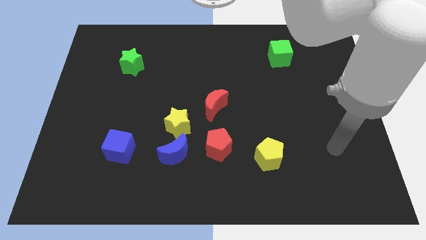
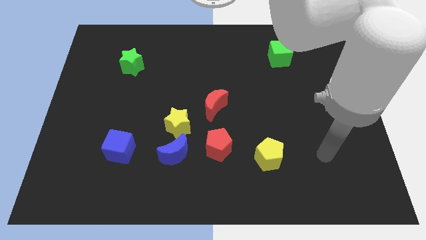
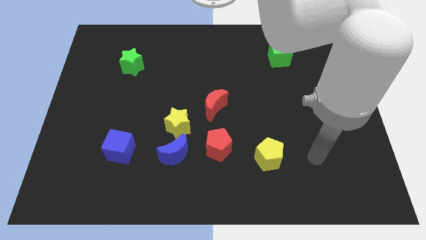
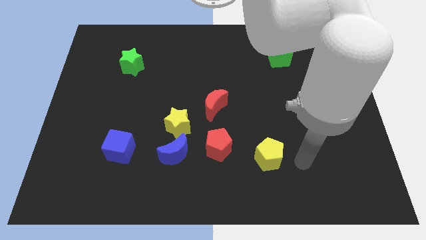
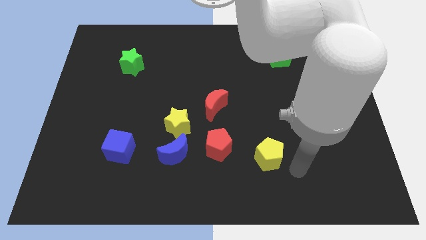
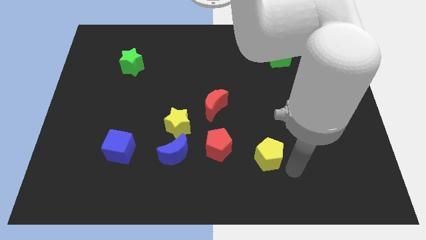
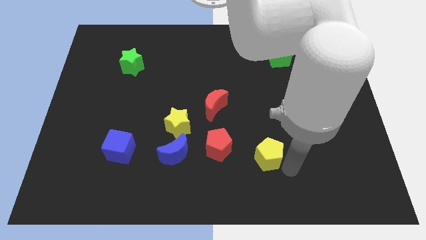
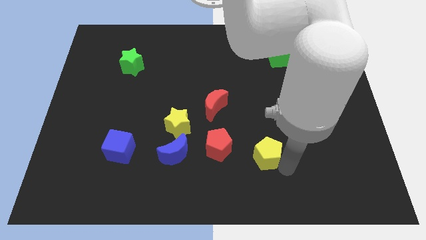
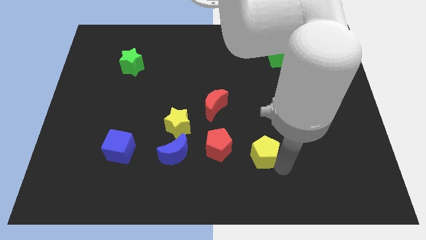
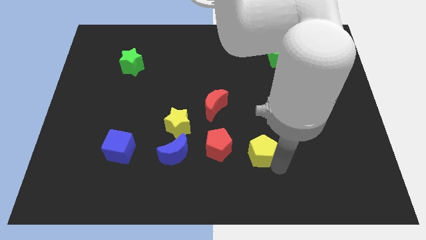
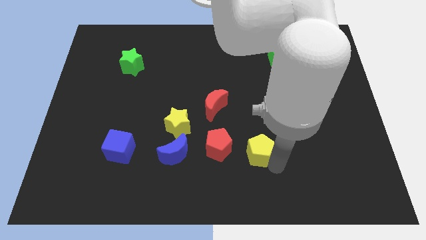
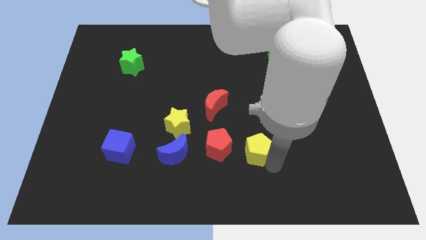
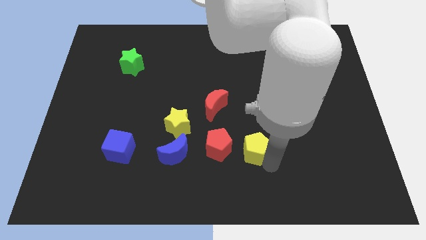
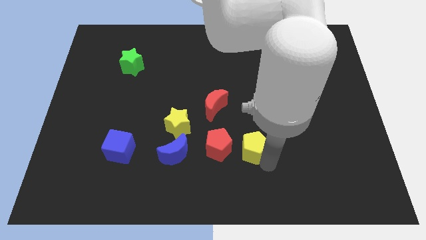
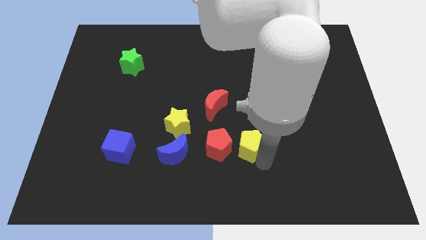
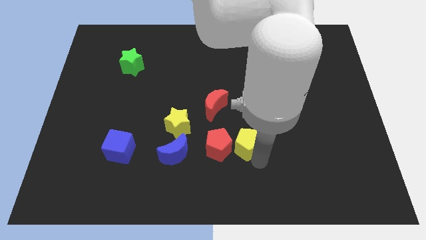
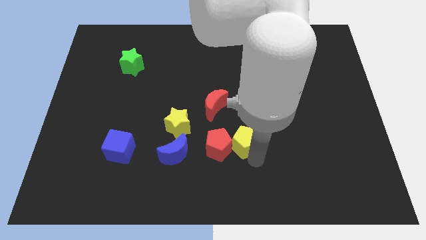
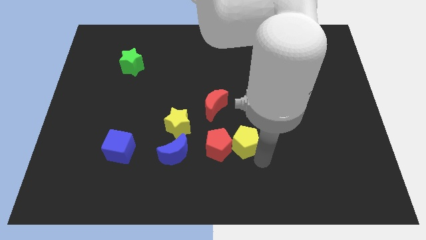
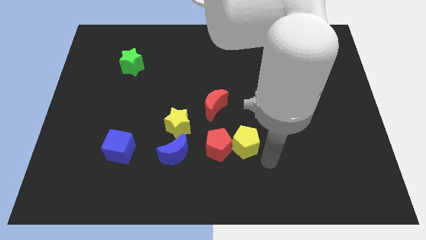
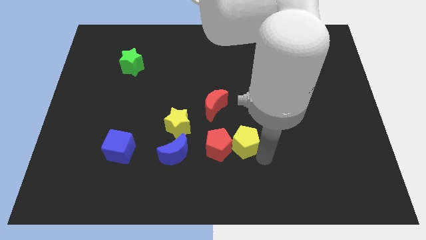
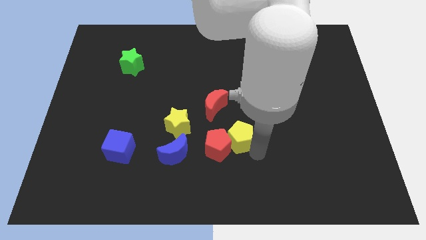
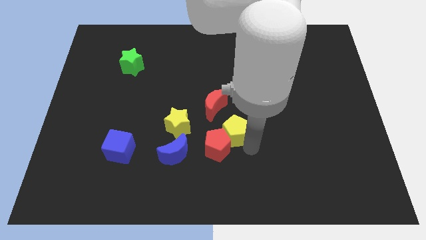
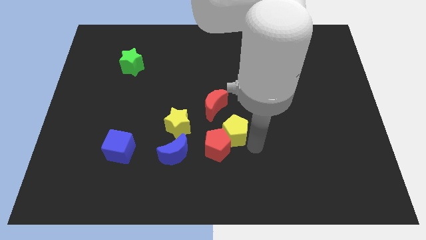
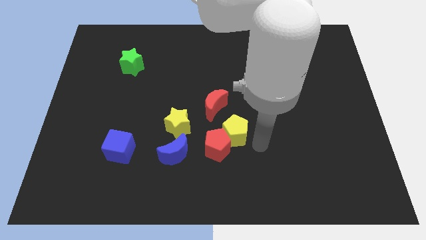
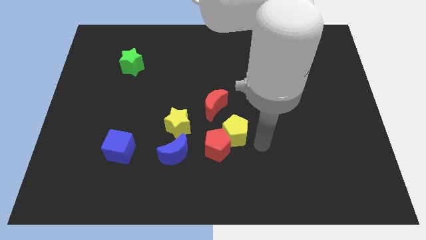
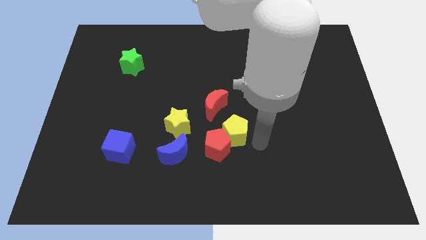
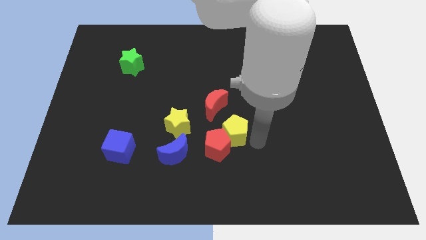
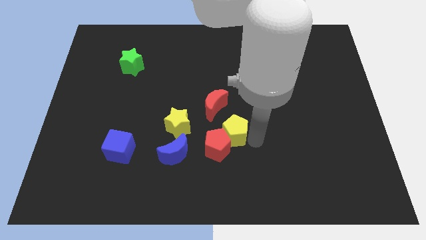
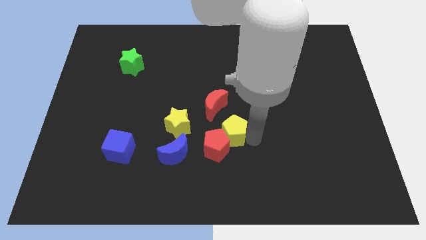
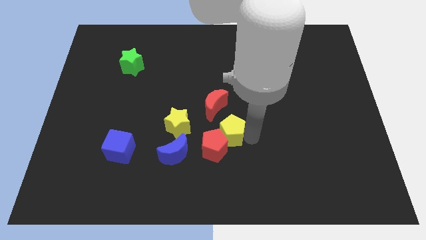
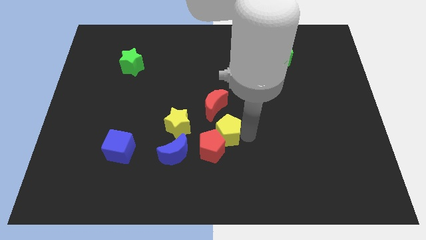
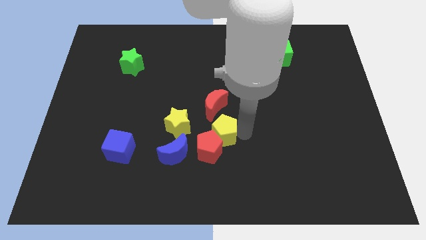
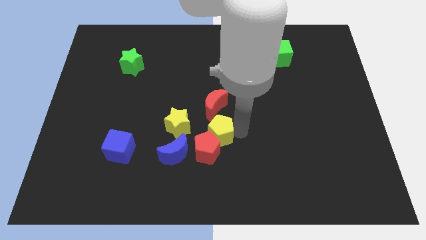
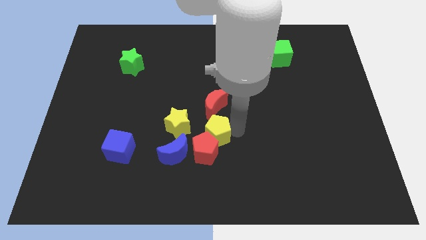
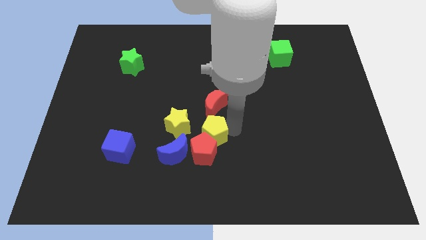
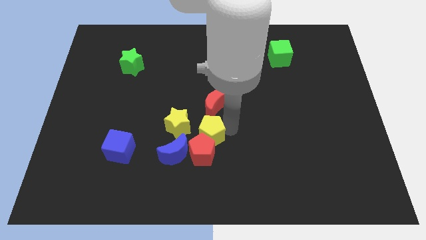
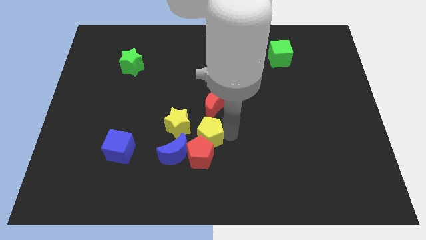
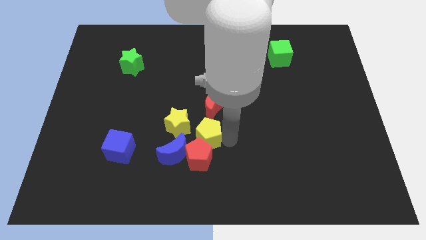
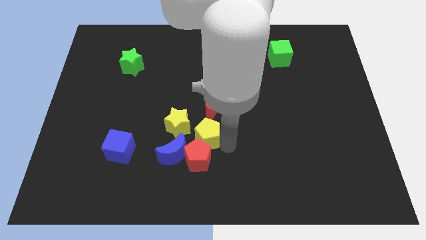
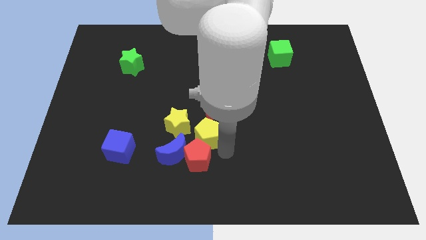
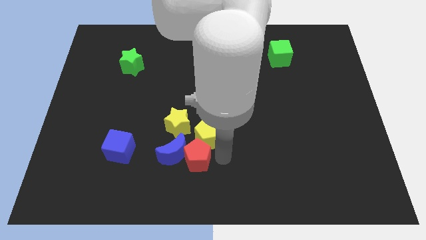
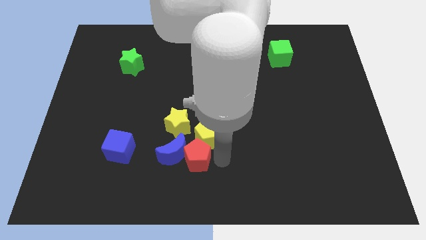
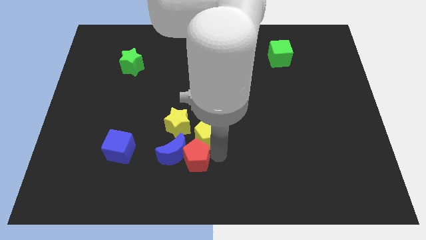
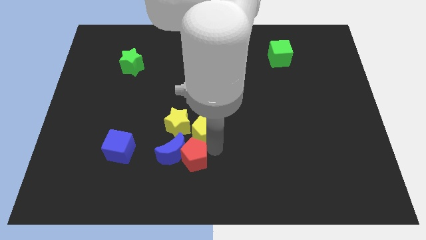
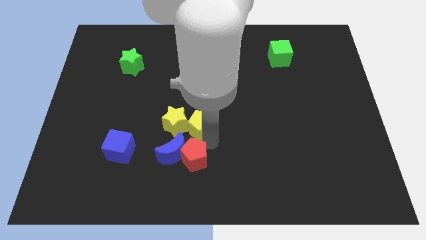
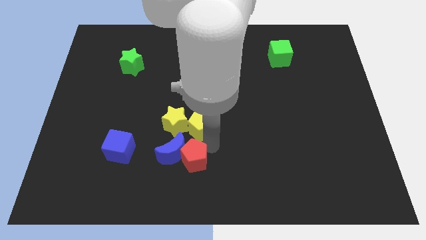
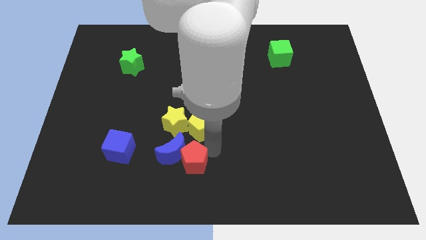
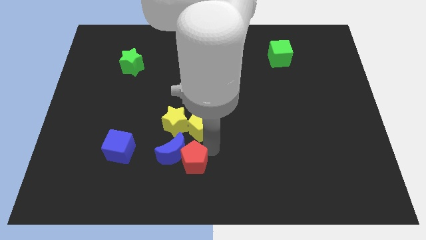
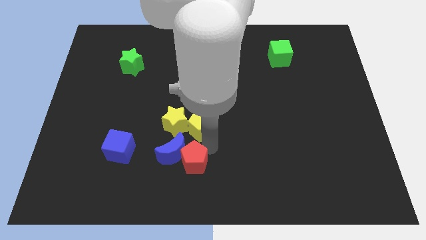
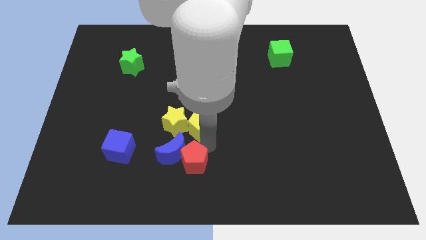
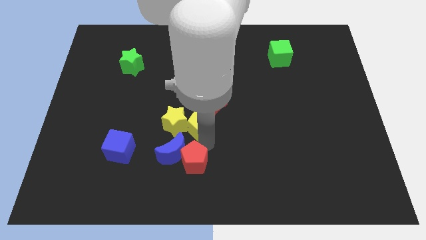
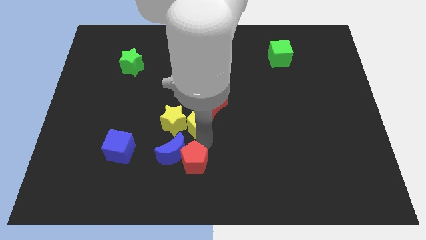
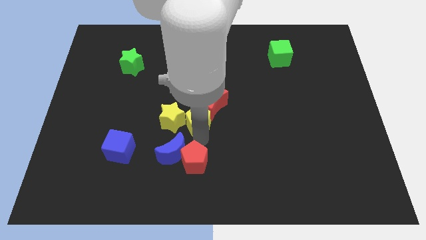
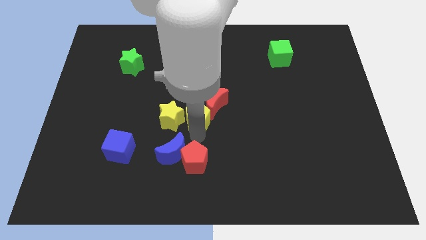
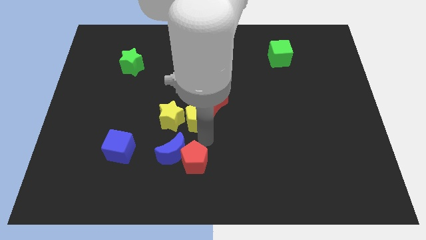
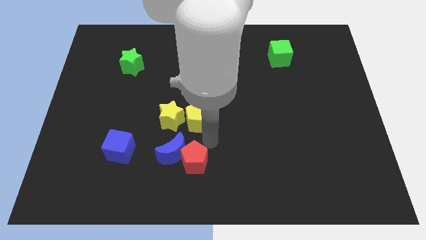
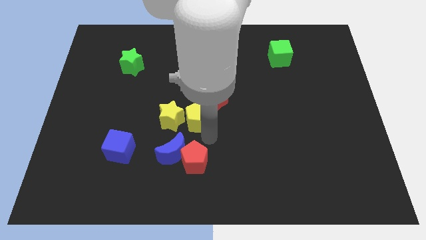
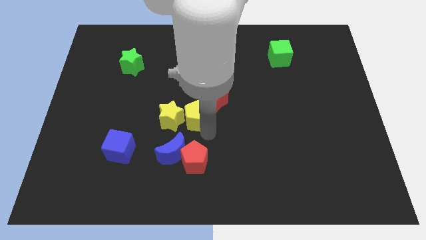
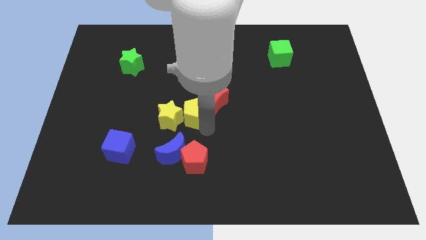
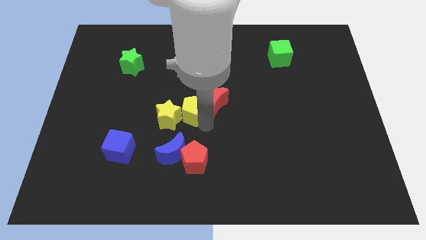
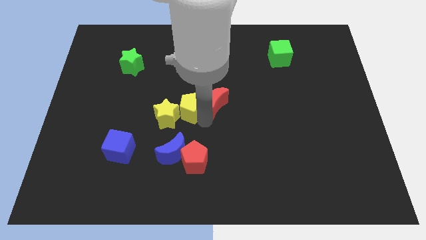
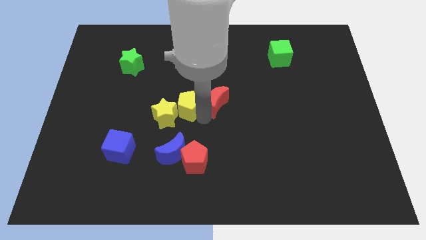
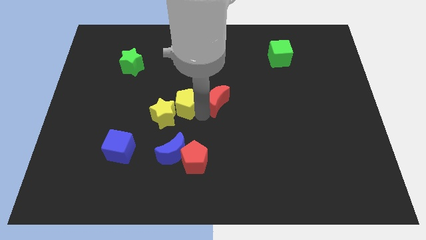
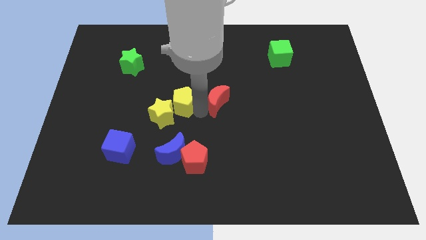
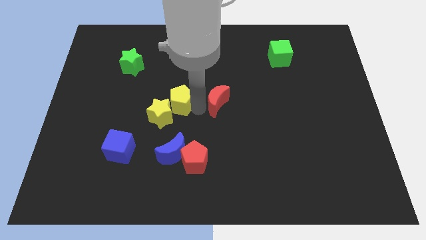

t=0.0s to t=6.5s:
push the yellow pentagon to the top of the yellow star

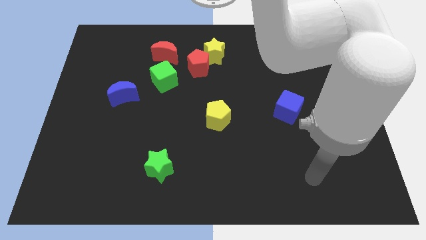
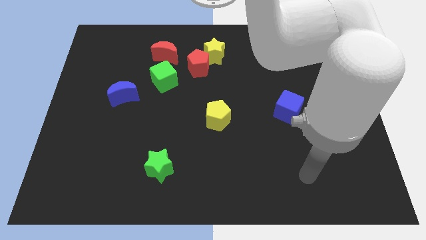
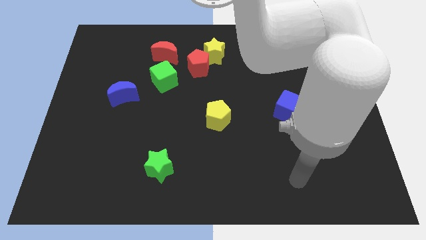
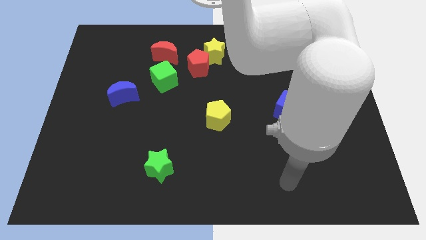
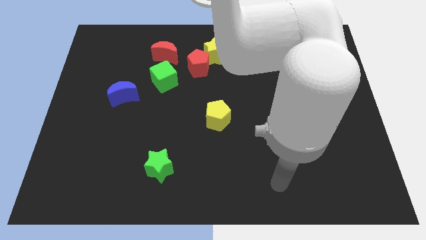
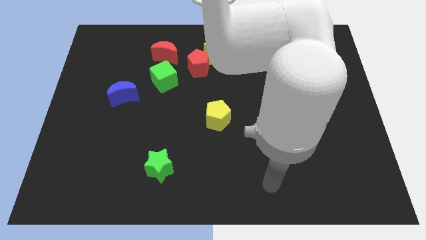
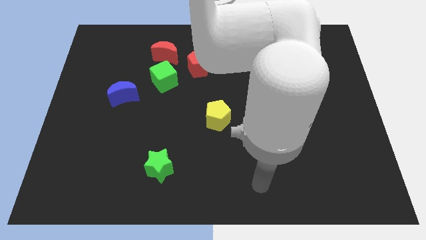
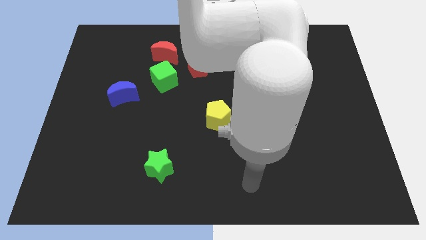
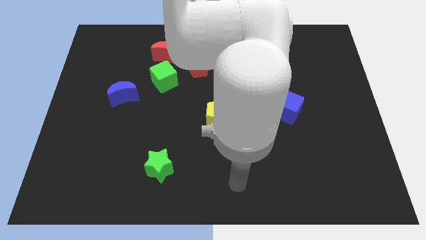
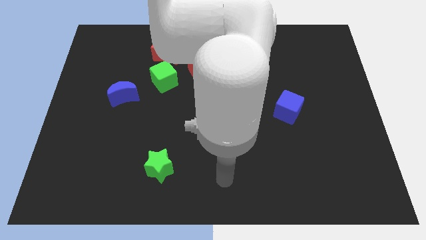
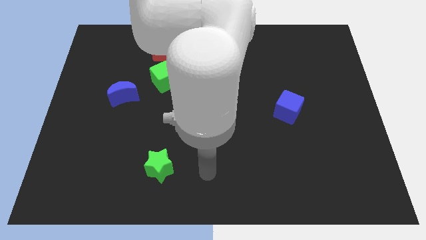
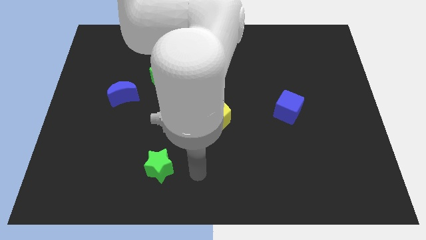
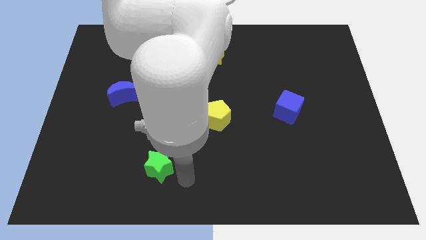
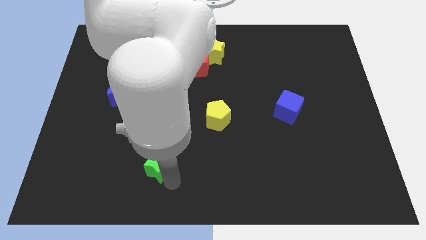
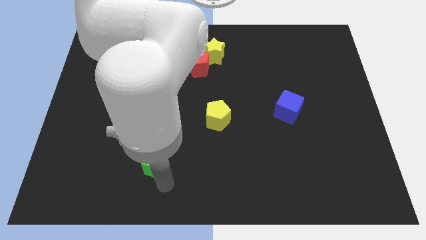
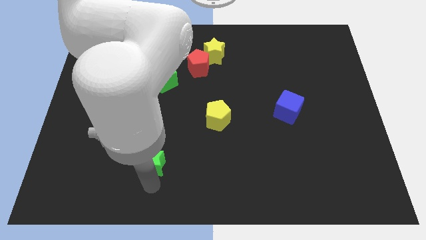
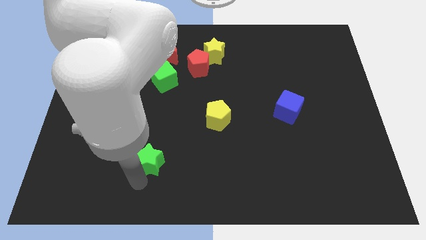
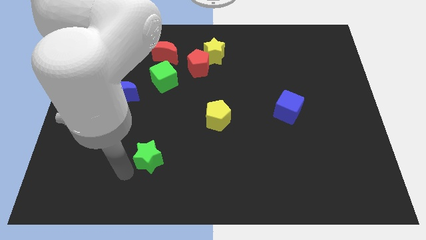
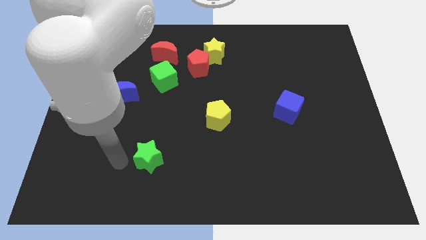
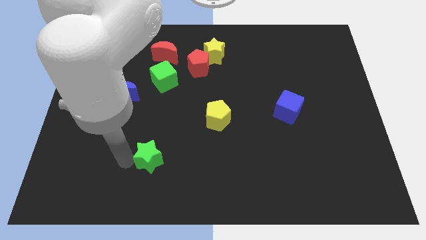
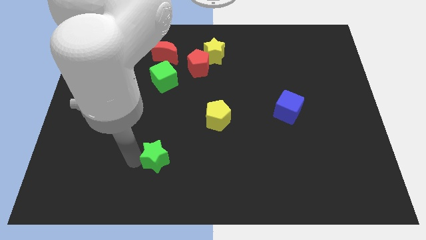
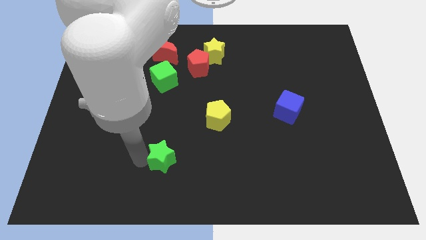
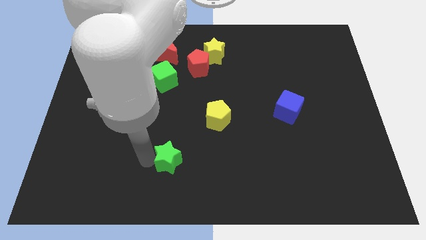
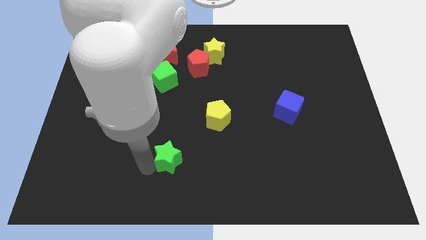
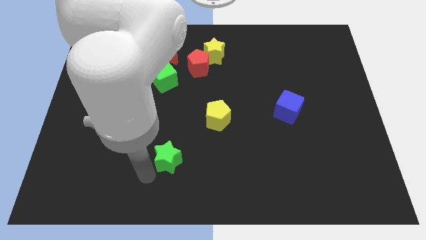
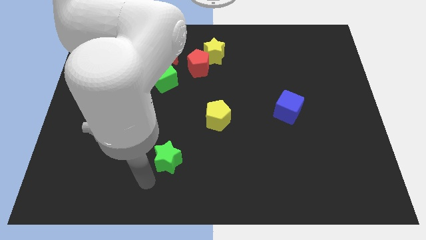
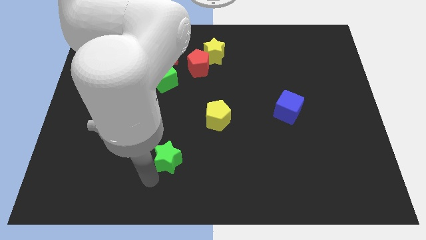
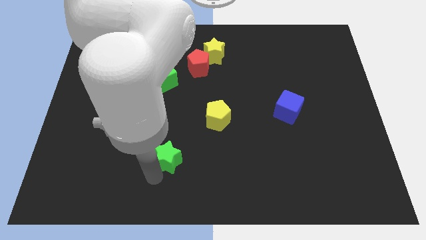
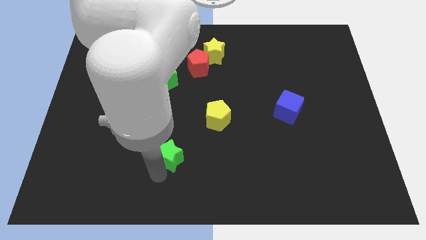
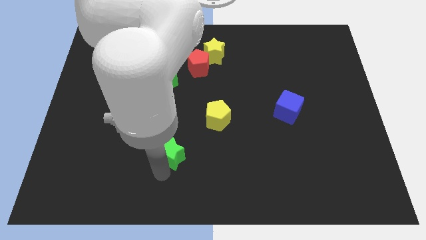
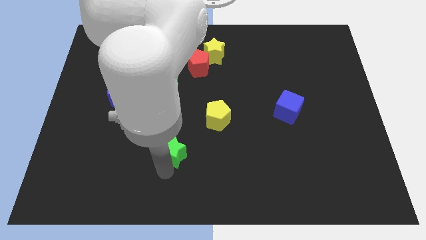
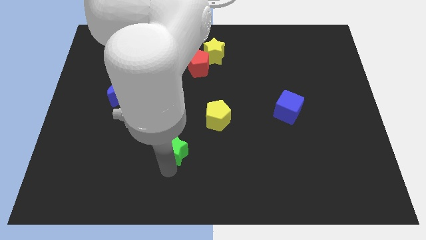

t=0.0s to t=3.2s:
put the green star diagonally down and to the left of the yellow pentagon
